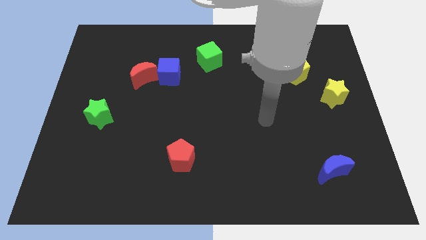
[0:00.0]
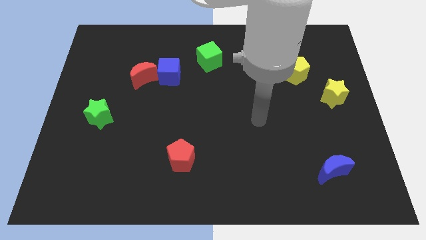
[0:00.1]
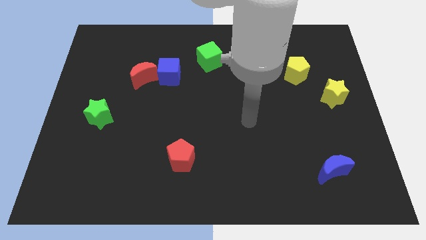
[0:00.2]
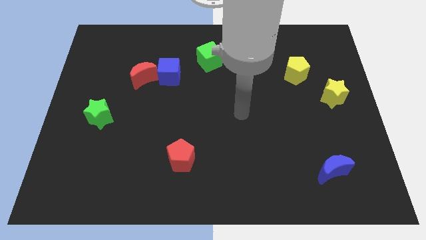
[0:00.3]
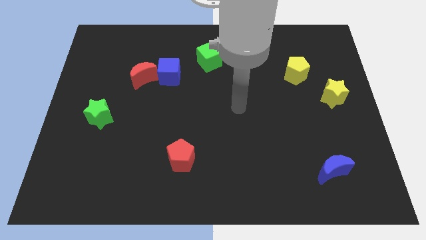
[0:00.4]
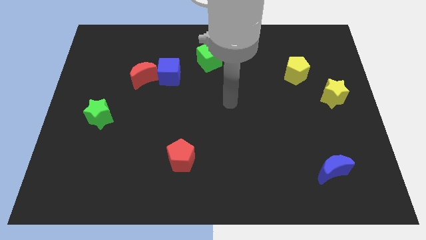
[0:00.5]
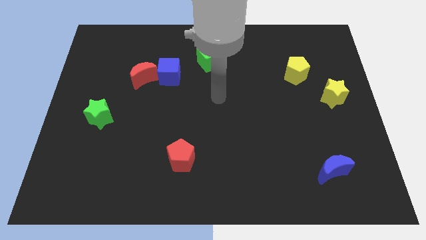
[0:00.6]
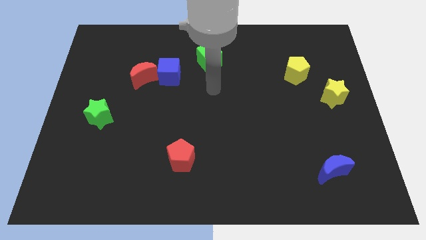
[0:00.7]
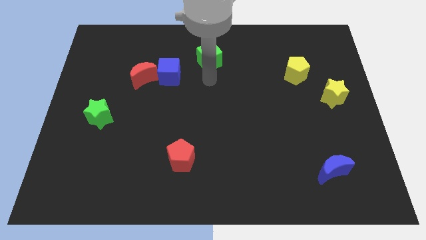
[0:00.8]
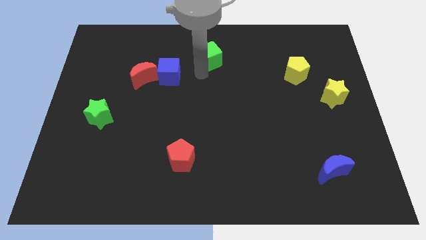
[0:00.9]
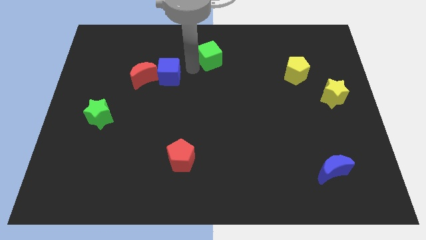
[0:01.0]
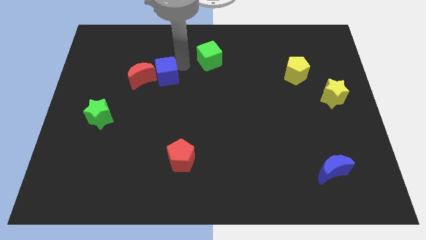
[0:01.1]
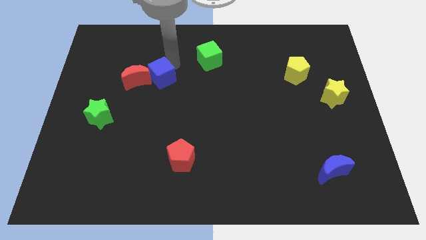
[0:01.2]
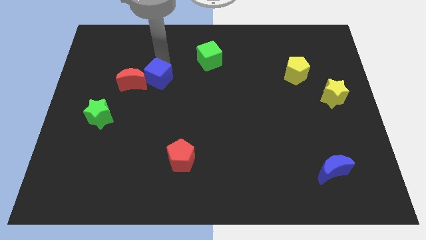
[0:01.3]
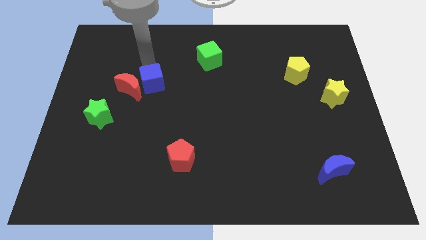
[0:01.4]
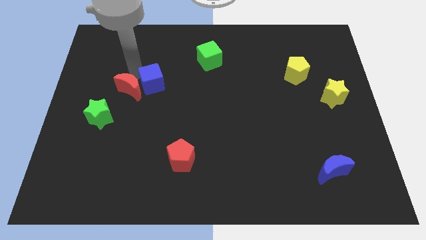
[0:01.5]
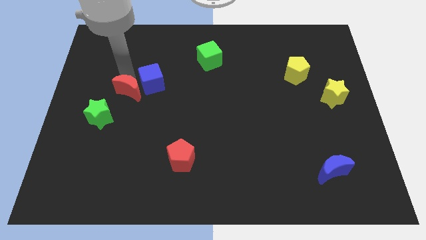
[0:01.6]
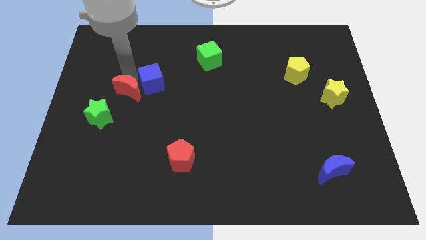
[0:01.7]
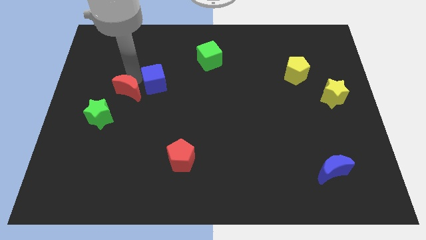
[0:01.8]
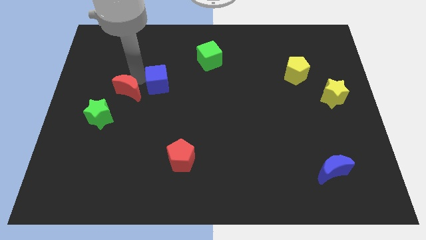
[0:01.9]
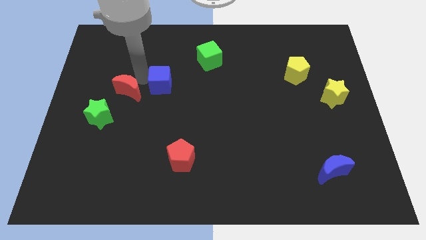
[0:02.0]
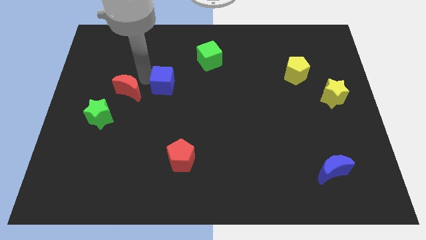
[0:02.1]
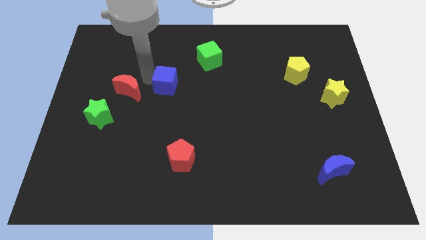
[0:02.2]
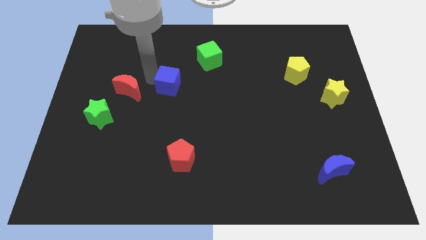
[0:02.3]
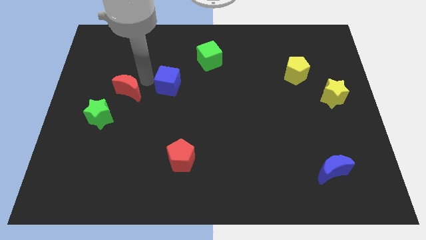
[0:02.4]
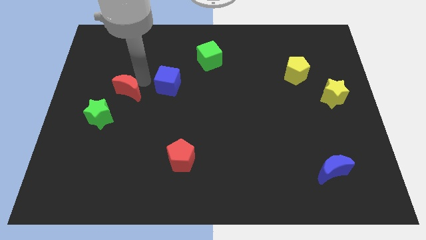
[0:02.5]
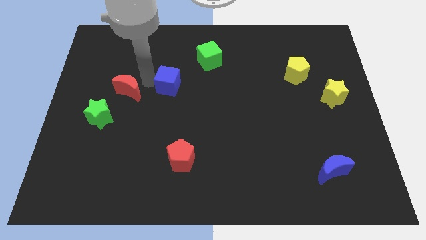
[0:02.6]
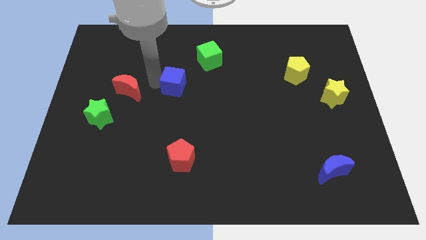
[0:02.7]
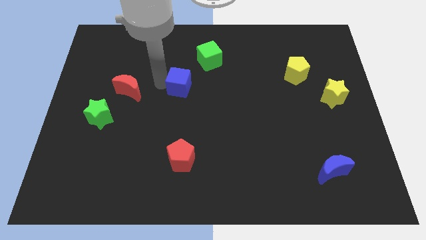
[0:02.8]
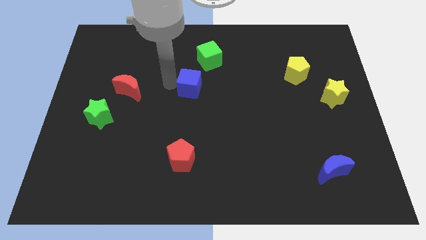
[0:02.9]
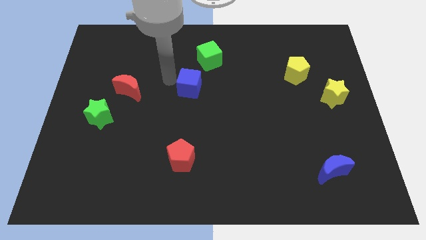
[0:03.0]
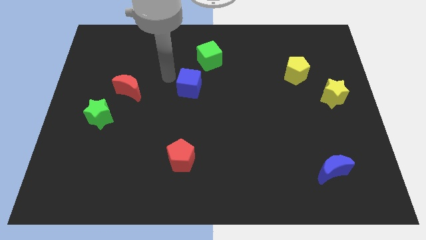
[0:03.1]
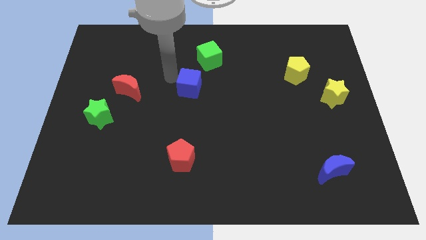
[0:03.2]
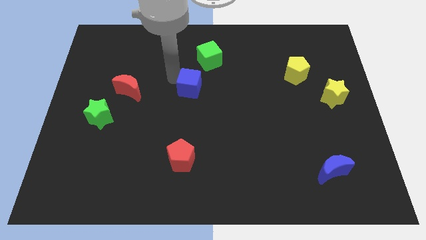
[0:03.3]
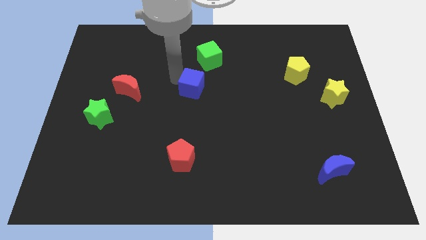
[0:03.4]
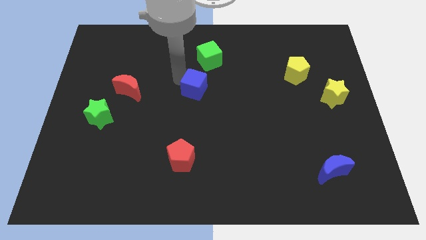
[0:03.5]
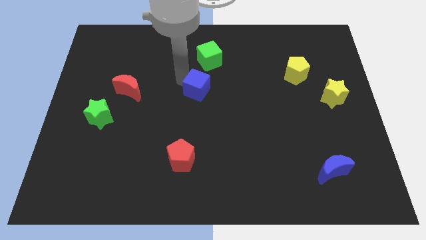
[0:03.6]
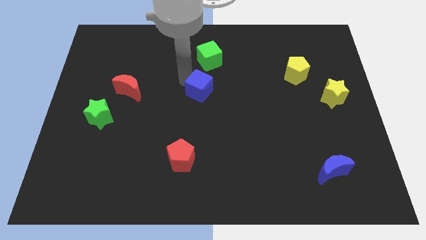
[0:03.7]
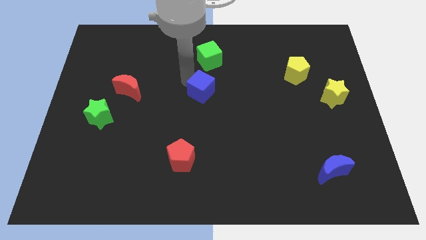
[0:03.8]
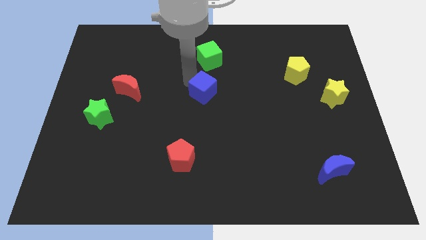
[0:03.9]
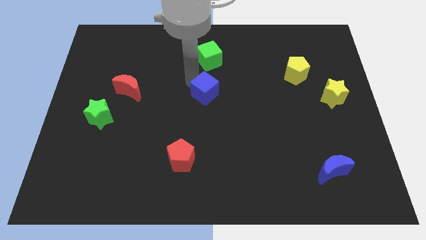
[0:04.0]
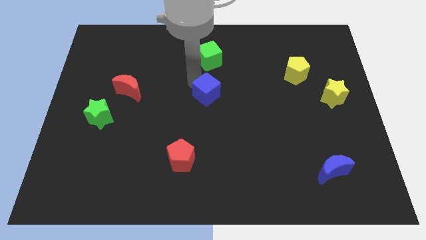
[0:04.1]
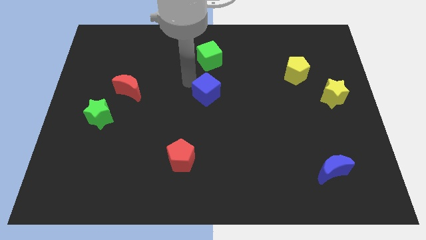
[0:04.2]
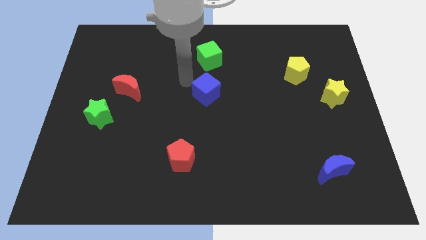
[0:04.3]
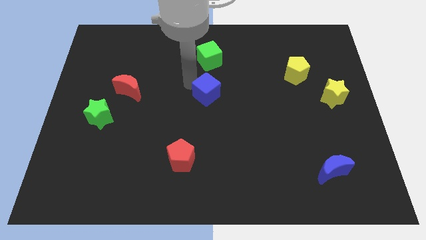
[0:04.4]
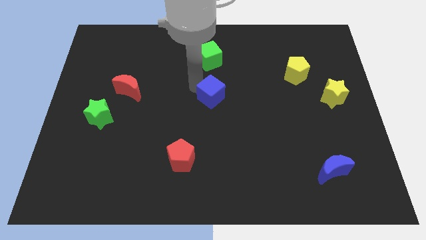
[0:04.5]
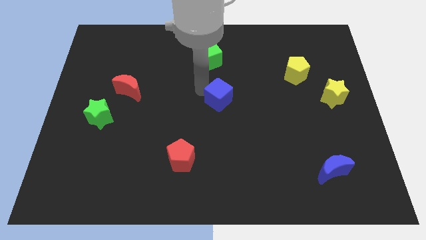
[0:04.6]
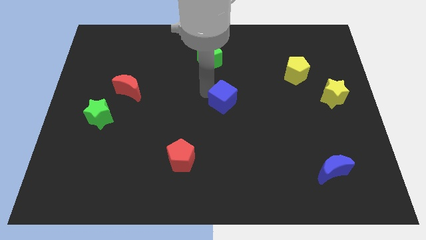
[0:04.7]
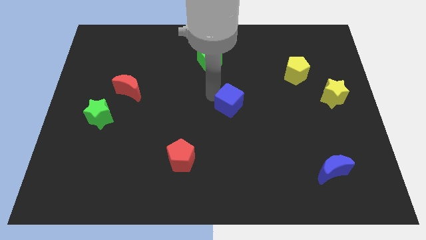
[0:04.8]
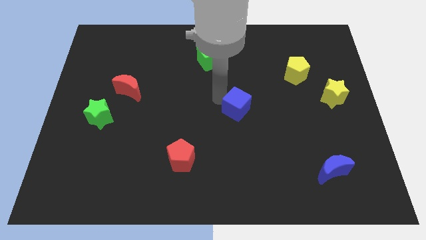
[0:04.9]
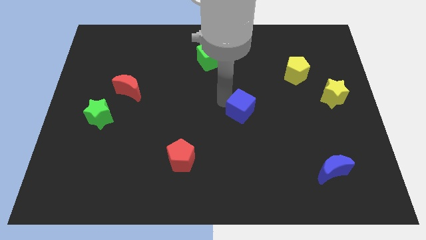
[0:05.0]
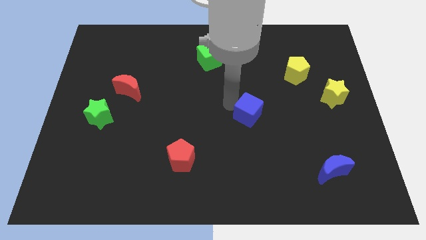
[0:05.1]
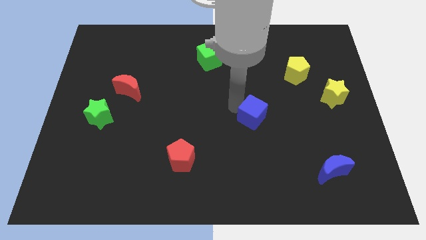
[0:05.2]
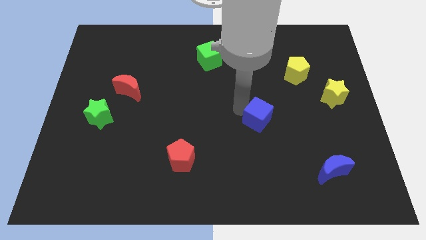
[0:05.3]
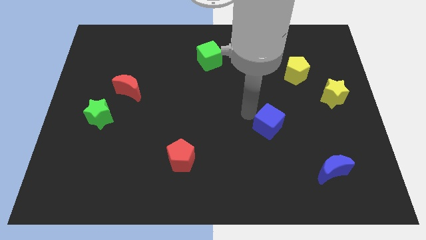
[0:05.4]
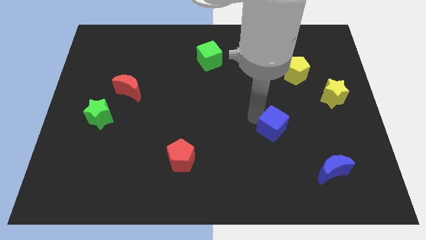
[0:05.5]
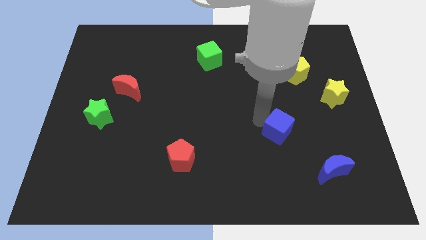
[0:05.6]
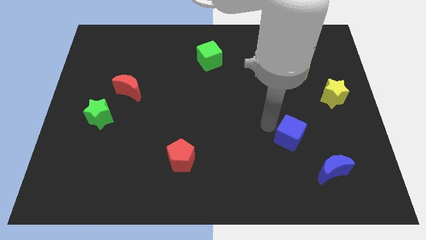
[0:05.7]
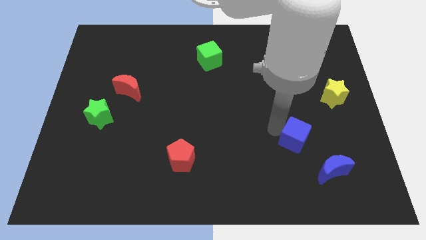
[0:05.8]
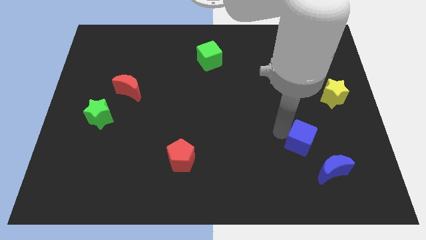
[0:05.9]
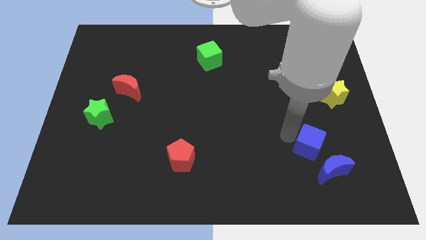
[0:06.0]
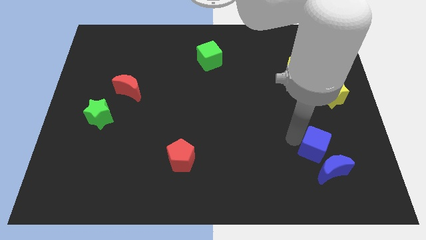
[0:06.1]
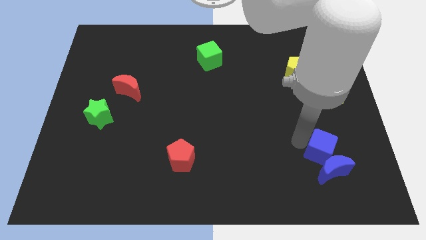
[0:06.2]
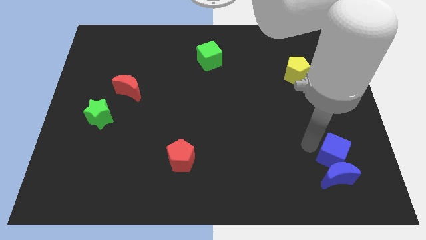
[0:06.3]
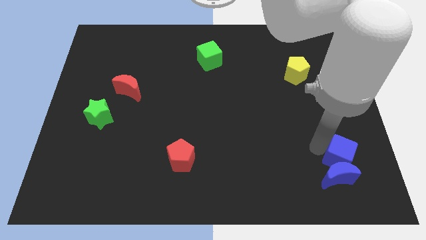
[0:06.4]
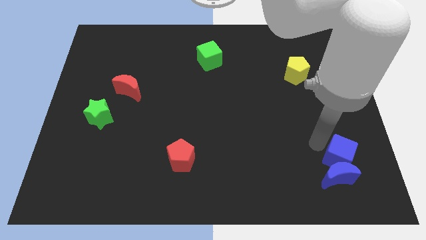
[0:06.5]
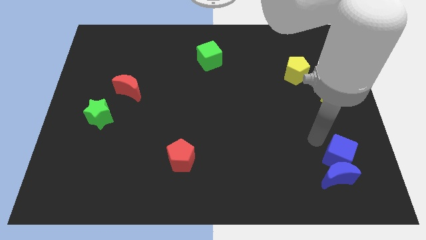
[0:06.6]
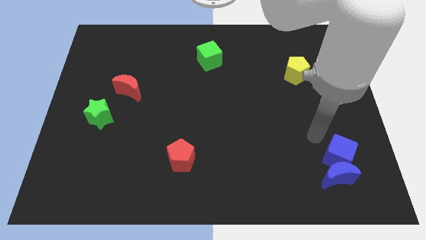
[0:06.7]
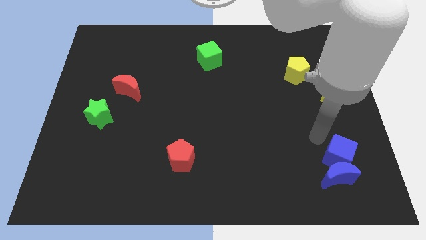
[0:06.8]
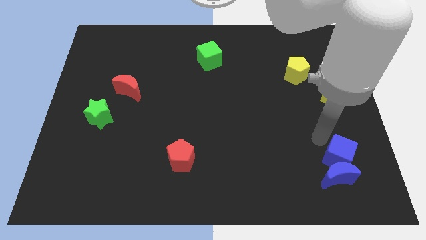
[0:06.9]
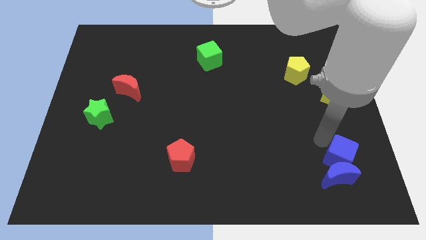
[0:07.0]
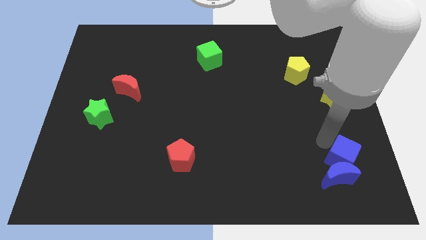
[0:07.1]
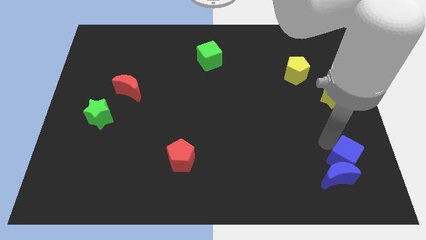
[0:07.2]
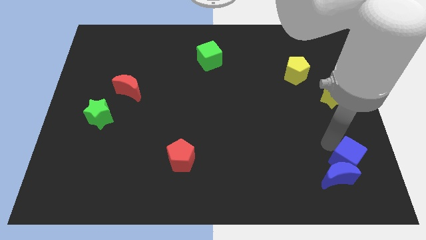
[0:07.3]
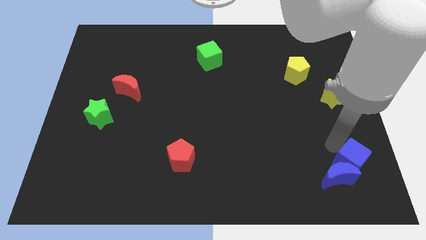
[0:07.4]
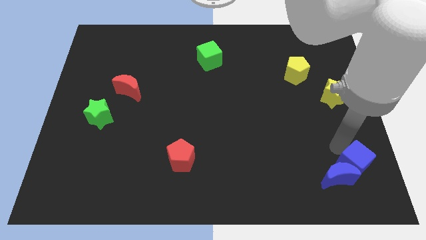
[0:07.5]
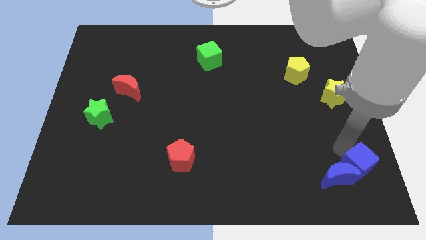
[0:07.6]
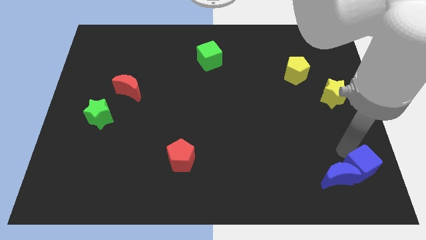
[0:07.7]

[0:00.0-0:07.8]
push the blue cube to the bottom right corner
